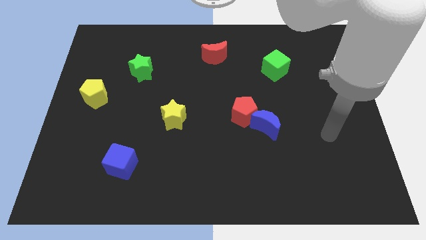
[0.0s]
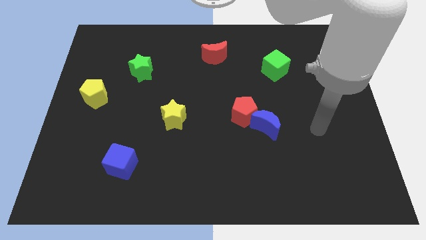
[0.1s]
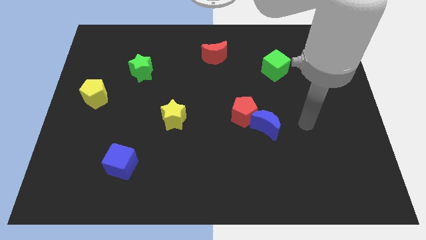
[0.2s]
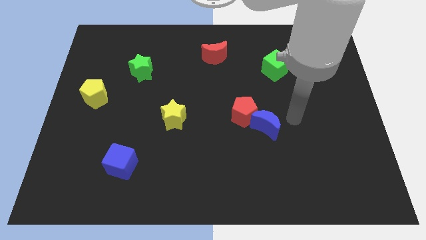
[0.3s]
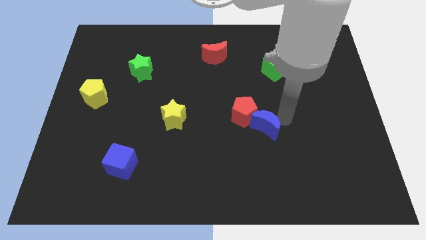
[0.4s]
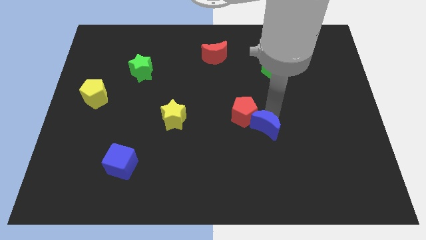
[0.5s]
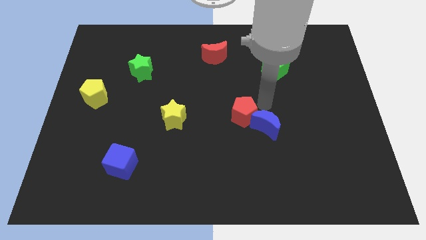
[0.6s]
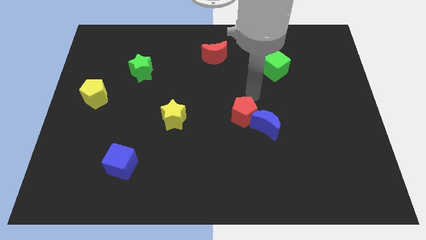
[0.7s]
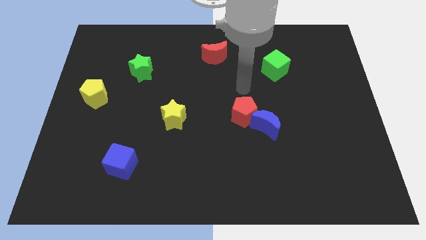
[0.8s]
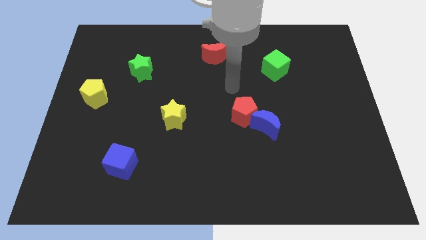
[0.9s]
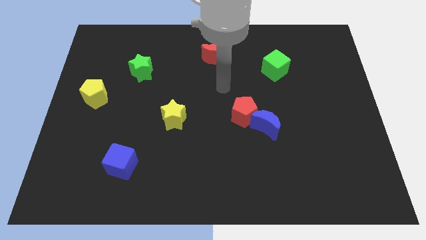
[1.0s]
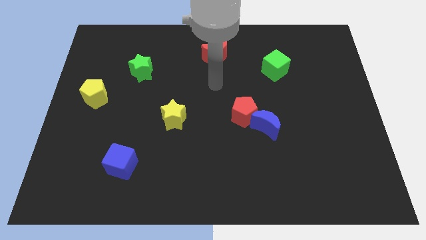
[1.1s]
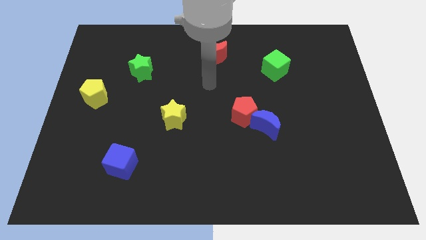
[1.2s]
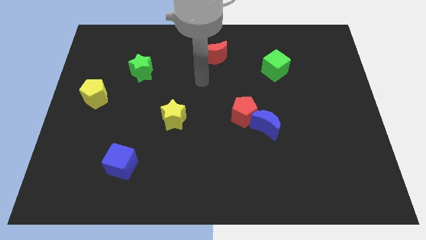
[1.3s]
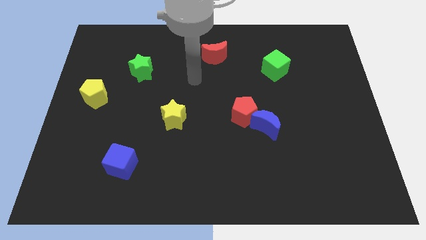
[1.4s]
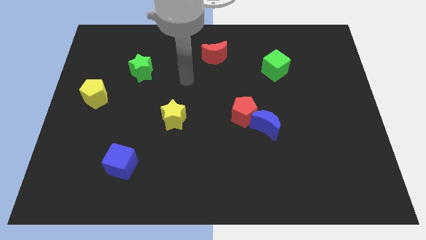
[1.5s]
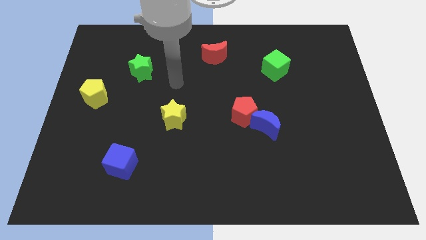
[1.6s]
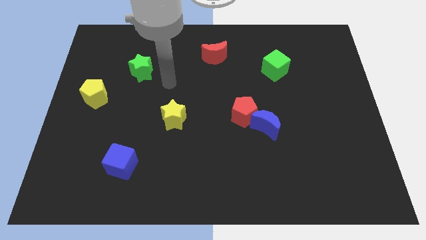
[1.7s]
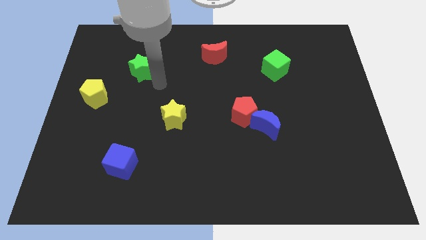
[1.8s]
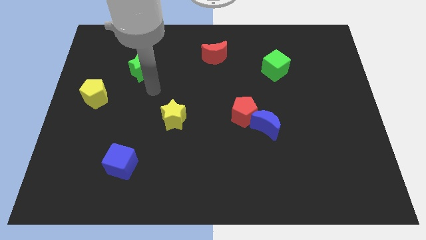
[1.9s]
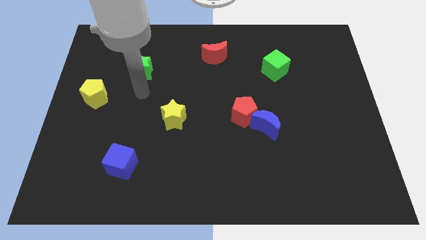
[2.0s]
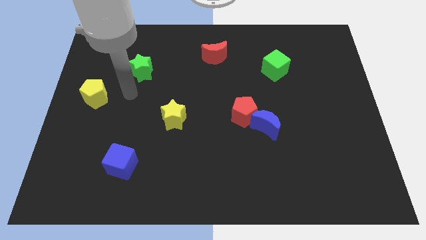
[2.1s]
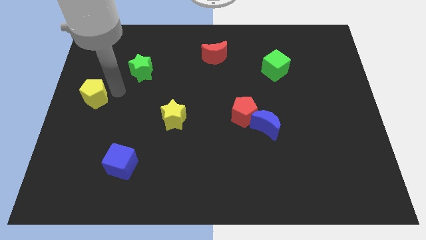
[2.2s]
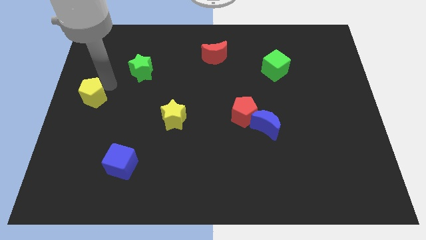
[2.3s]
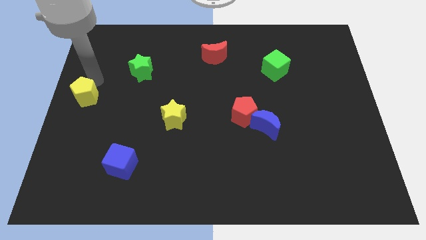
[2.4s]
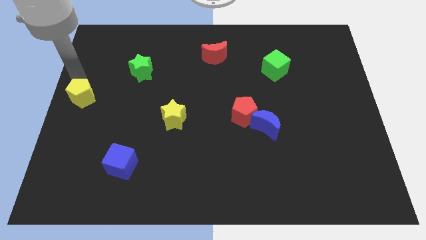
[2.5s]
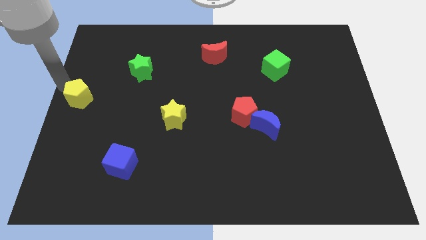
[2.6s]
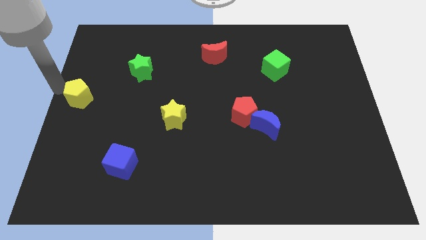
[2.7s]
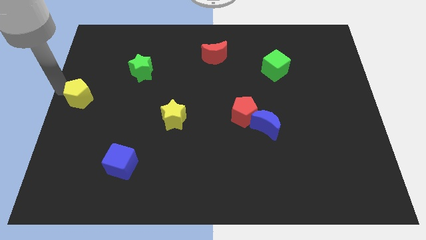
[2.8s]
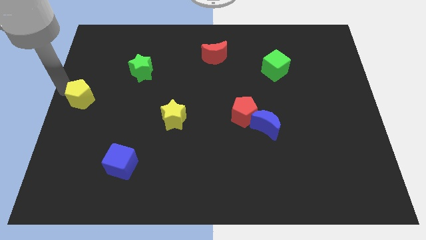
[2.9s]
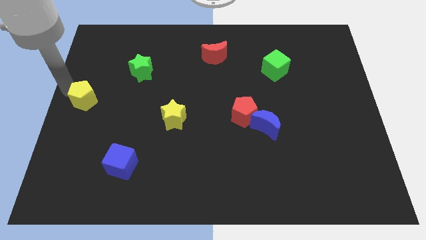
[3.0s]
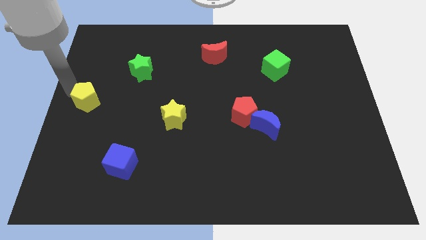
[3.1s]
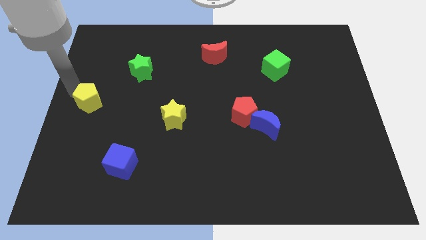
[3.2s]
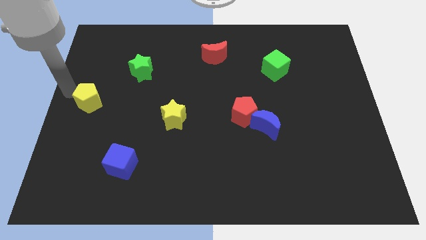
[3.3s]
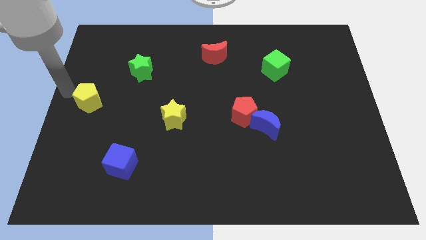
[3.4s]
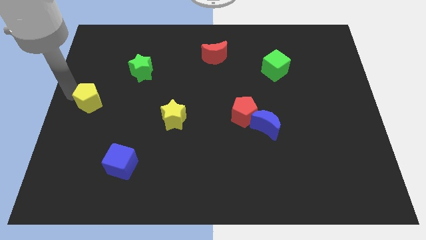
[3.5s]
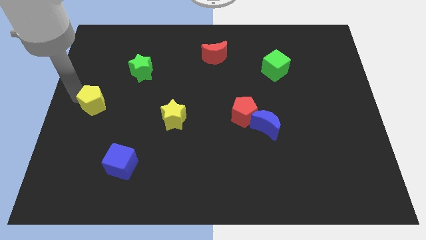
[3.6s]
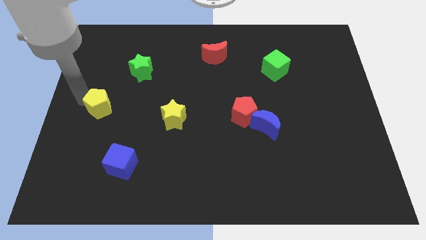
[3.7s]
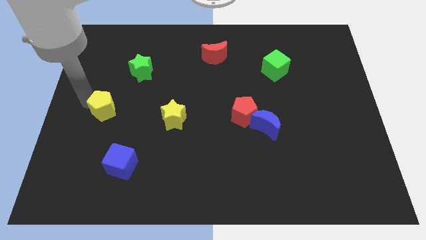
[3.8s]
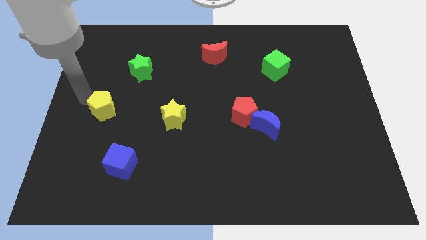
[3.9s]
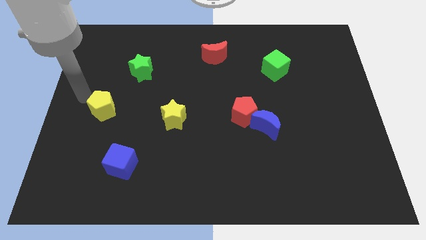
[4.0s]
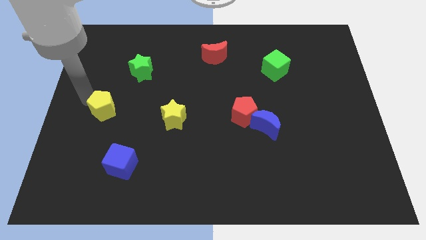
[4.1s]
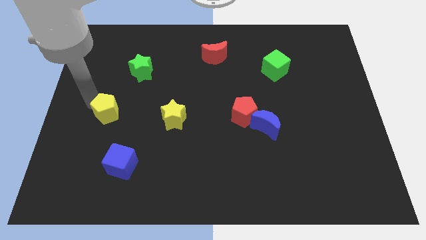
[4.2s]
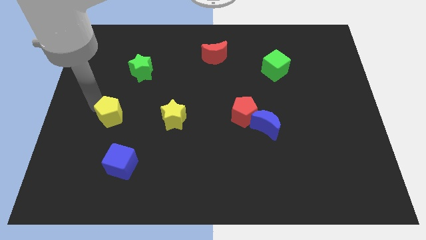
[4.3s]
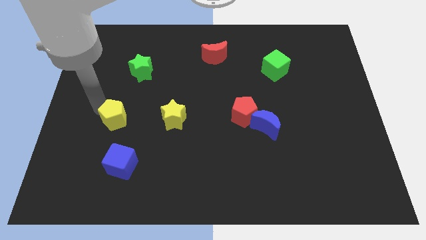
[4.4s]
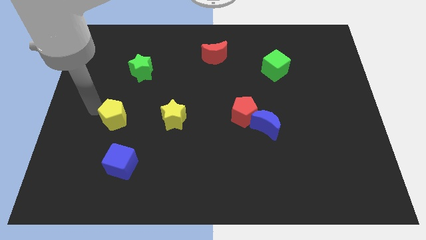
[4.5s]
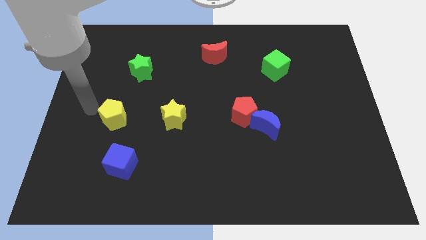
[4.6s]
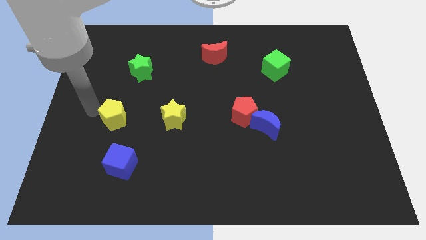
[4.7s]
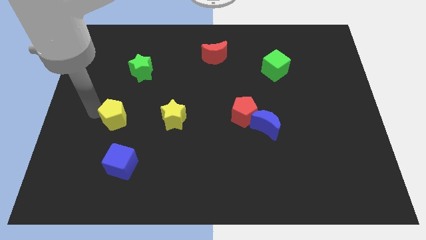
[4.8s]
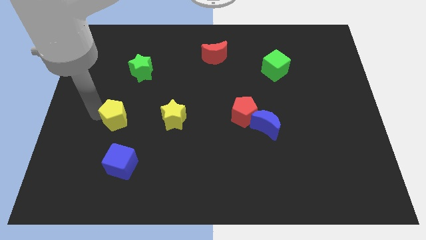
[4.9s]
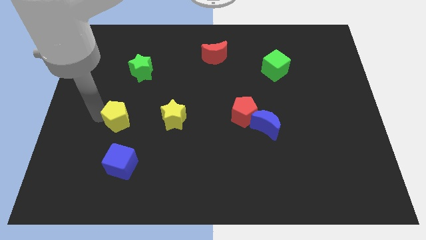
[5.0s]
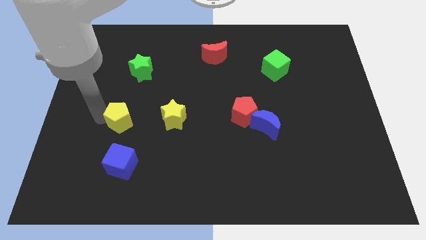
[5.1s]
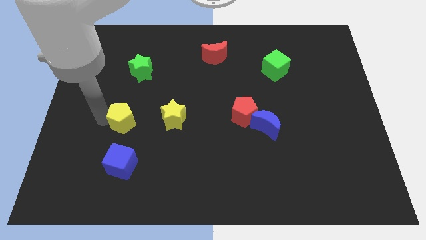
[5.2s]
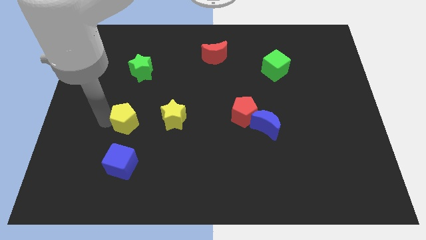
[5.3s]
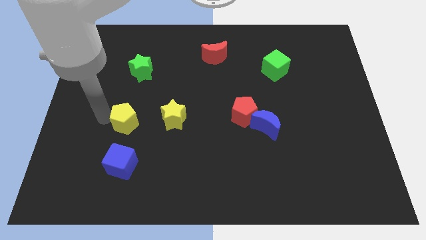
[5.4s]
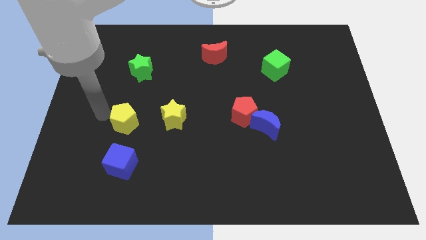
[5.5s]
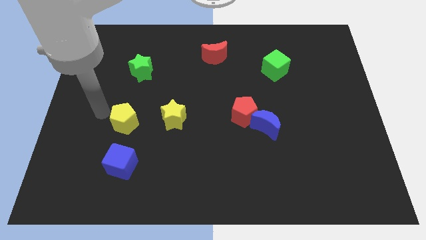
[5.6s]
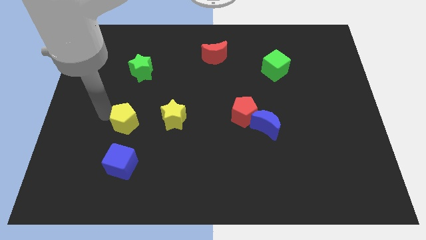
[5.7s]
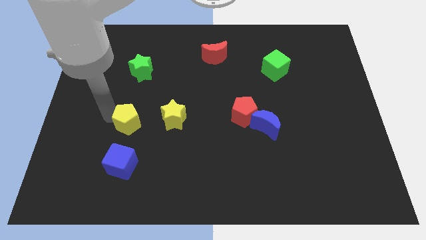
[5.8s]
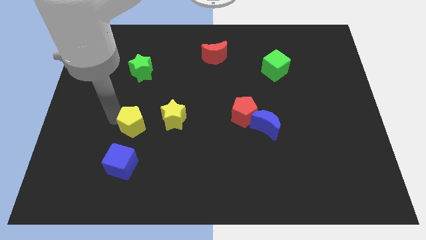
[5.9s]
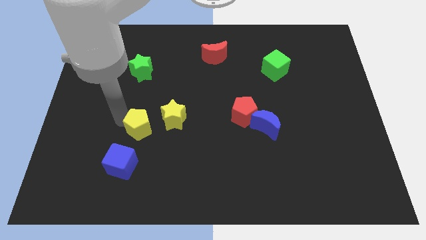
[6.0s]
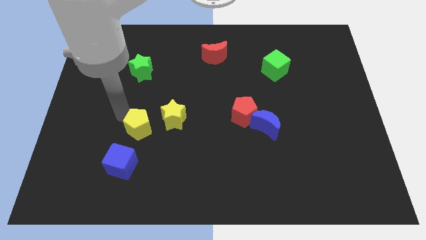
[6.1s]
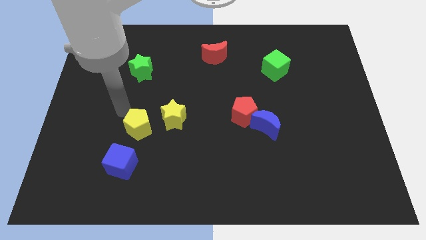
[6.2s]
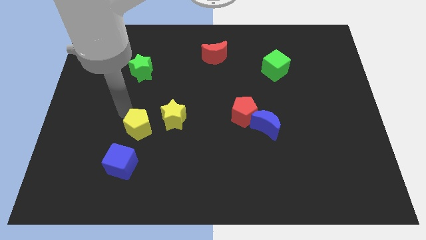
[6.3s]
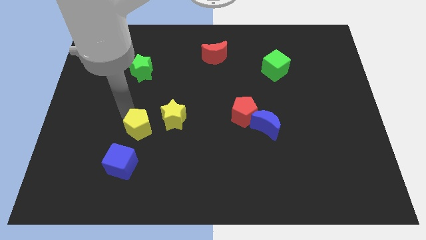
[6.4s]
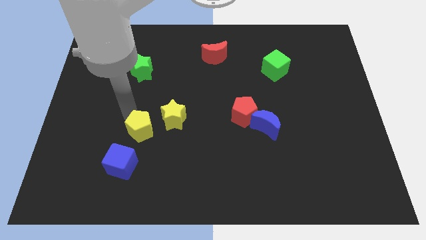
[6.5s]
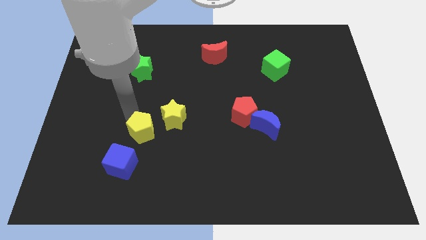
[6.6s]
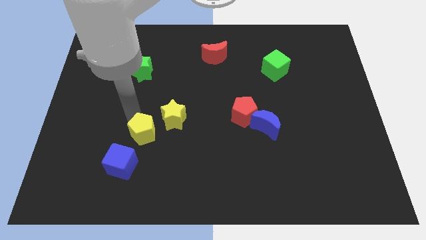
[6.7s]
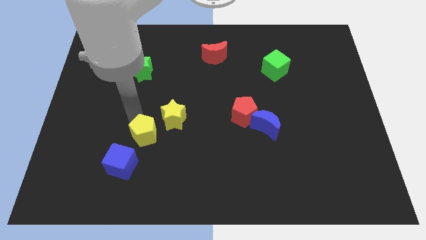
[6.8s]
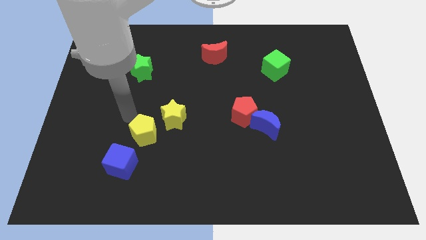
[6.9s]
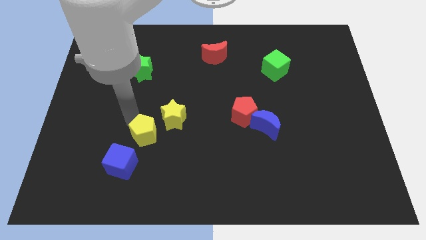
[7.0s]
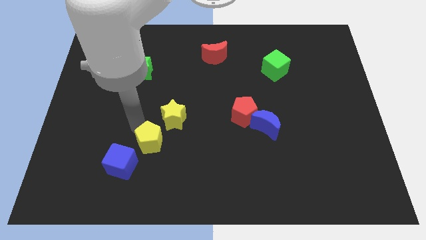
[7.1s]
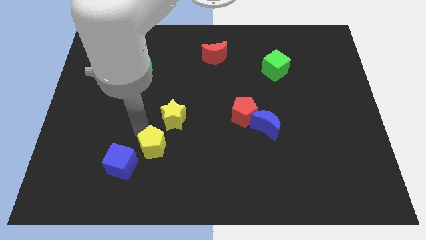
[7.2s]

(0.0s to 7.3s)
slide the yellow pentagon down and then to the right

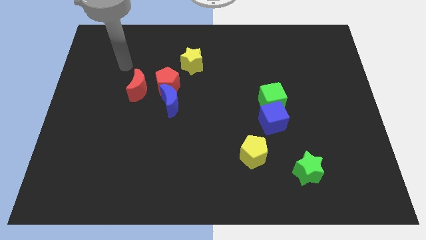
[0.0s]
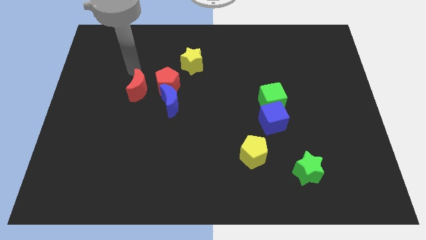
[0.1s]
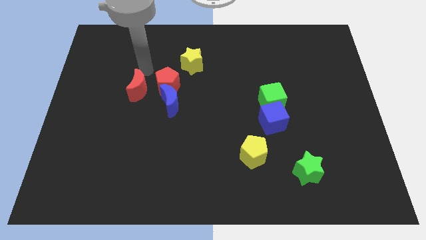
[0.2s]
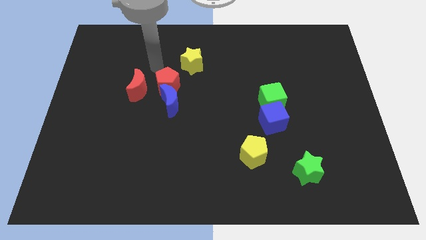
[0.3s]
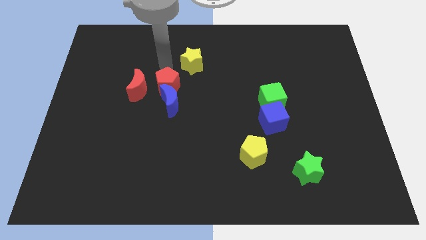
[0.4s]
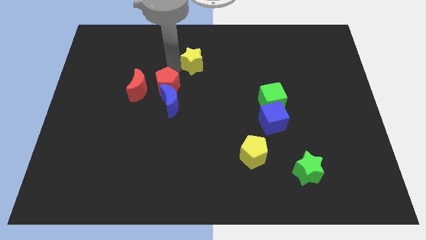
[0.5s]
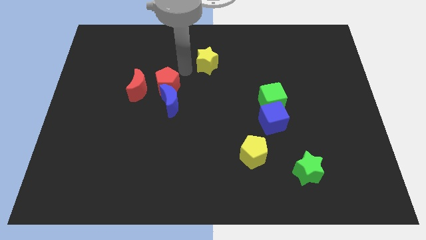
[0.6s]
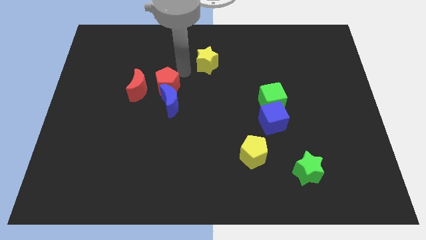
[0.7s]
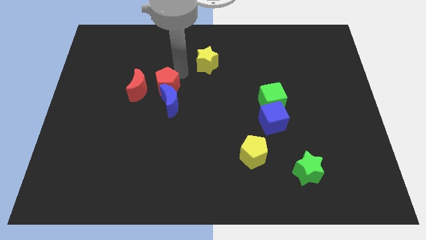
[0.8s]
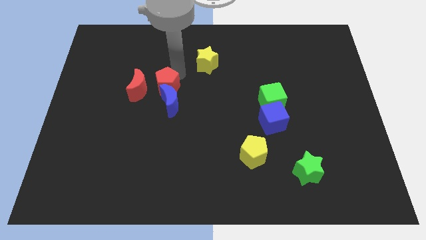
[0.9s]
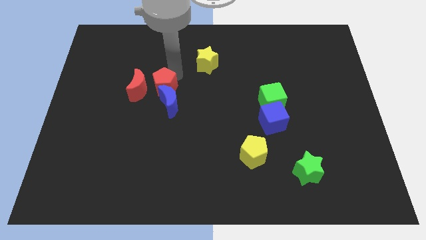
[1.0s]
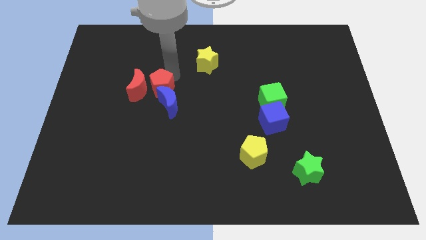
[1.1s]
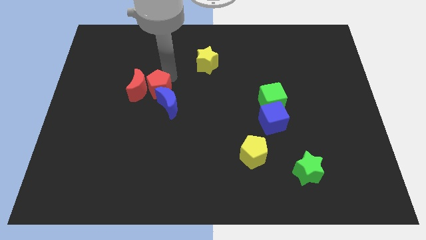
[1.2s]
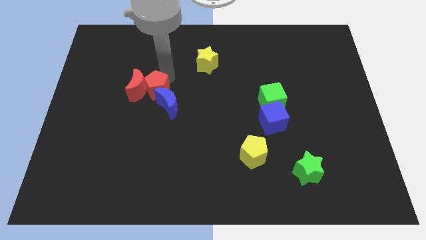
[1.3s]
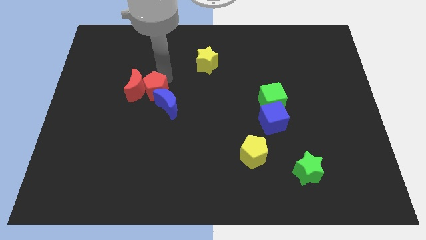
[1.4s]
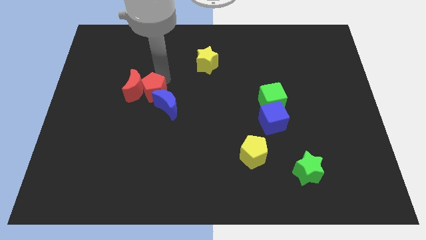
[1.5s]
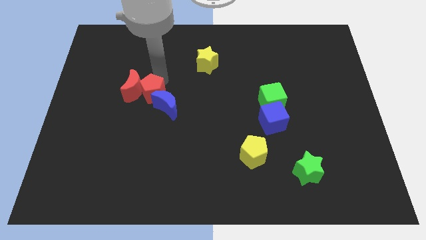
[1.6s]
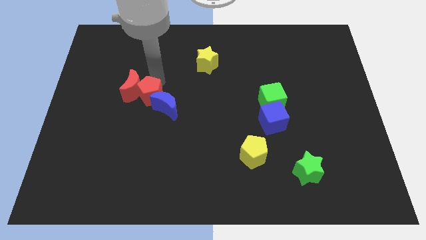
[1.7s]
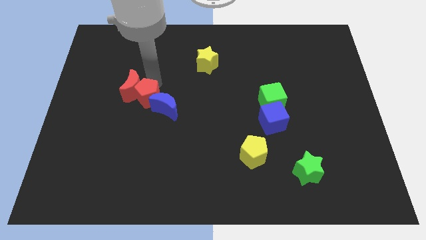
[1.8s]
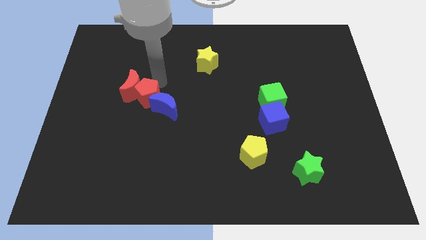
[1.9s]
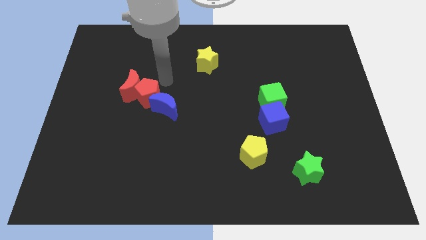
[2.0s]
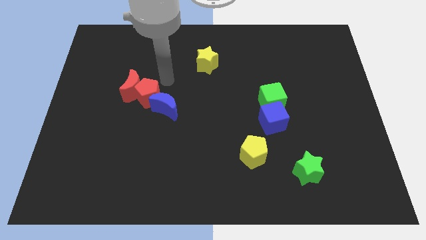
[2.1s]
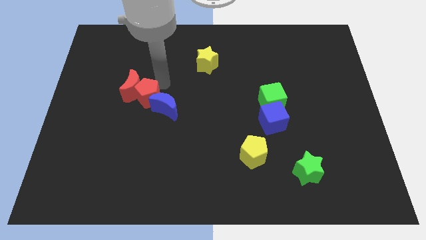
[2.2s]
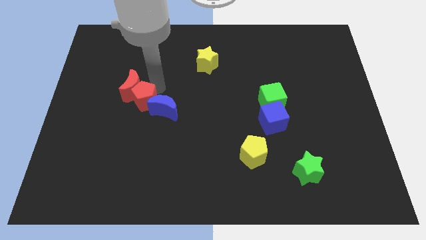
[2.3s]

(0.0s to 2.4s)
move the red pentagon diagonally downwards and to the left a little
